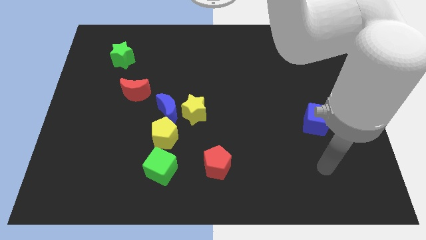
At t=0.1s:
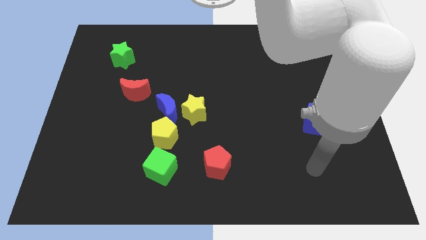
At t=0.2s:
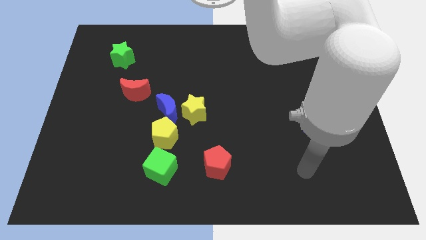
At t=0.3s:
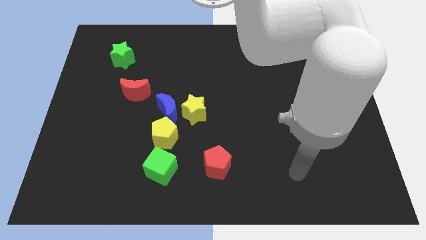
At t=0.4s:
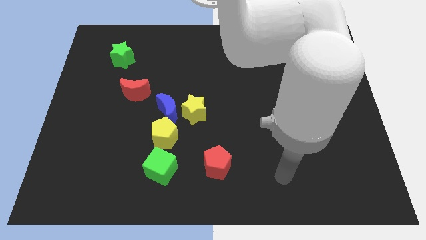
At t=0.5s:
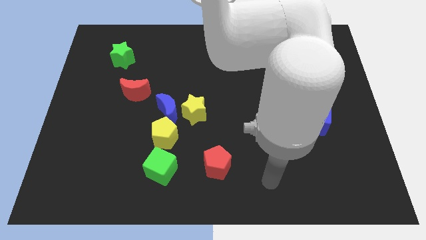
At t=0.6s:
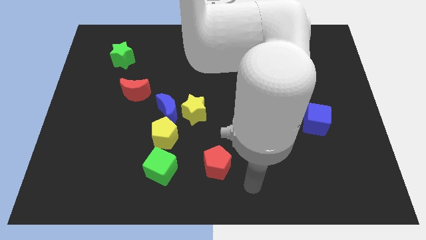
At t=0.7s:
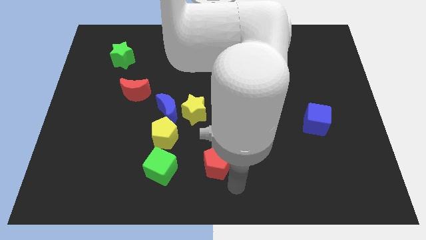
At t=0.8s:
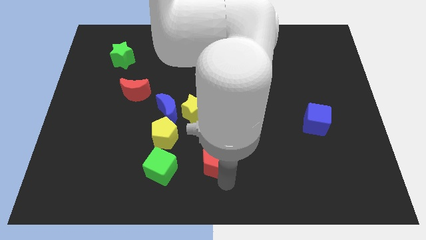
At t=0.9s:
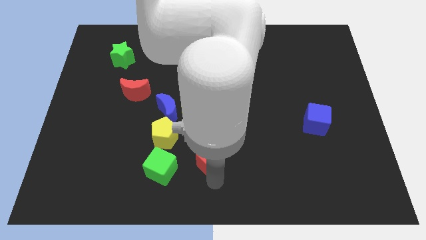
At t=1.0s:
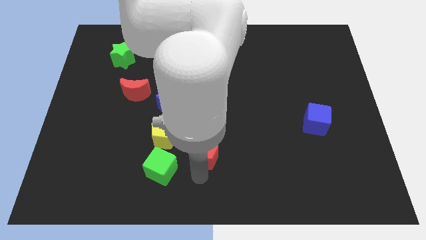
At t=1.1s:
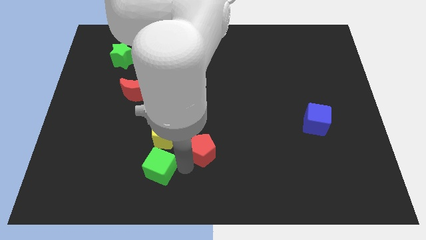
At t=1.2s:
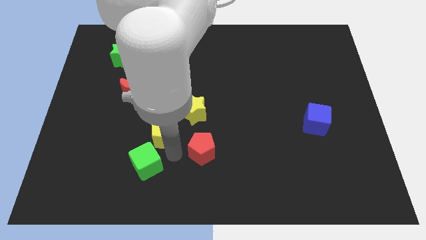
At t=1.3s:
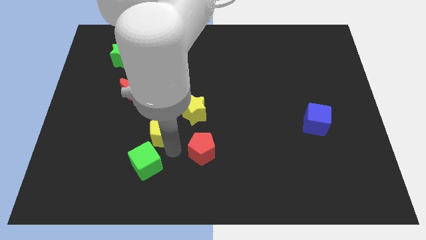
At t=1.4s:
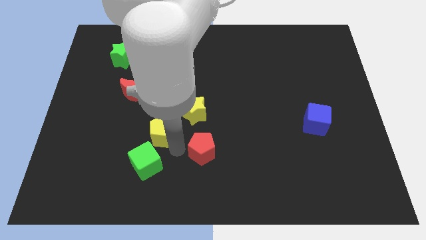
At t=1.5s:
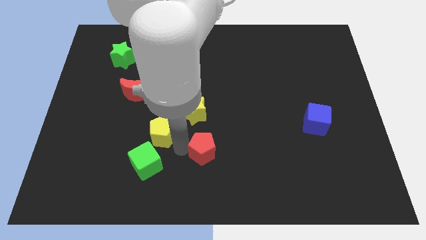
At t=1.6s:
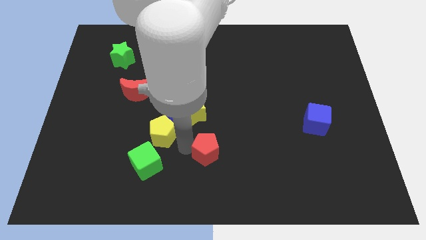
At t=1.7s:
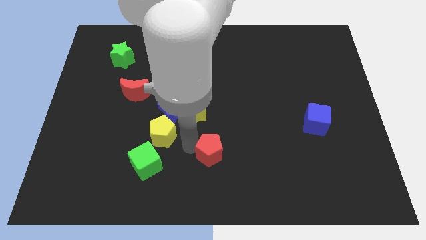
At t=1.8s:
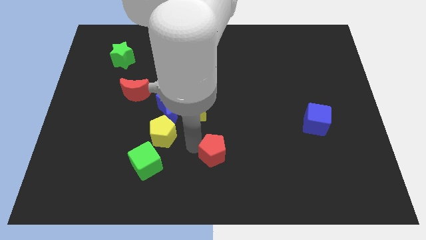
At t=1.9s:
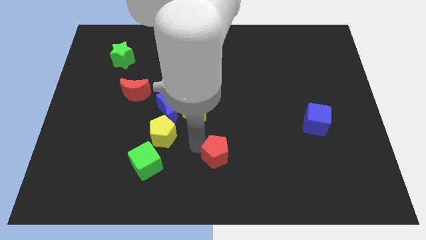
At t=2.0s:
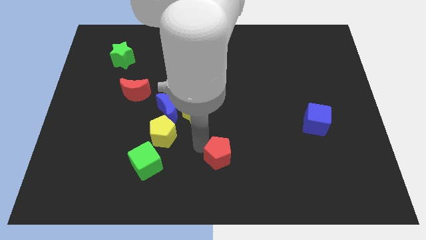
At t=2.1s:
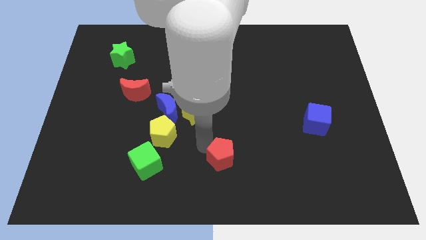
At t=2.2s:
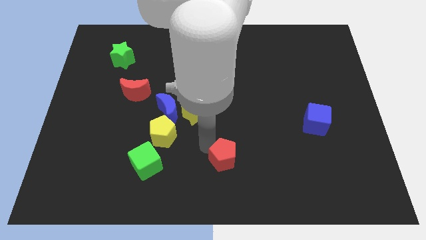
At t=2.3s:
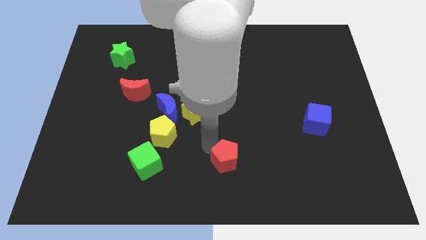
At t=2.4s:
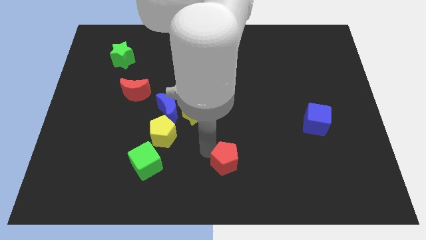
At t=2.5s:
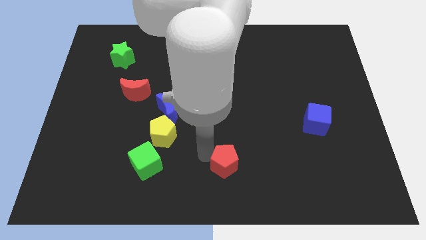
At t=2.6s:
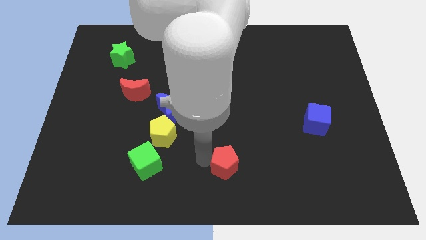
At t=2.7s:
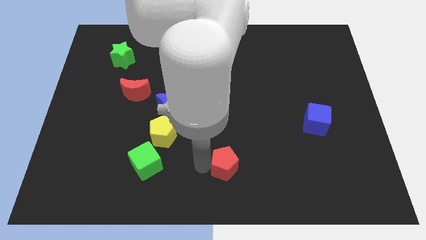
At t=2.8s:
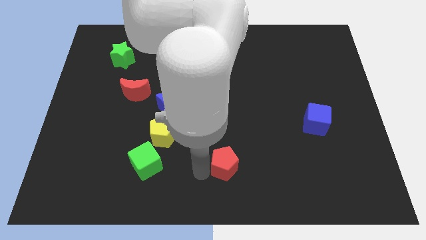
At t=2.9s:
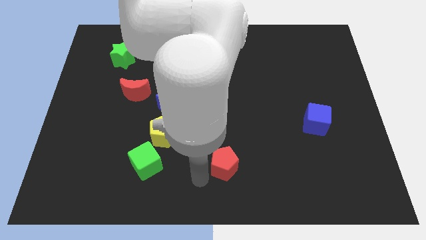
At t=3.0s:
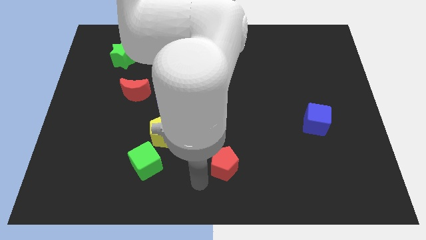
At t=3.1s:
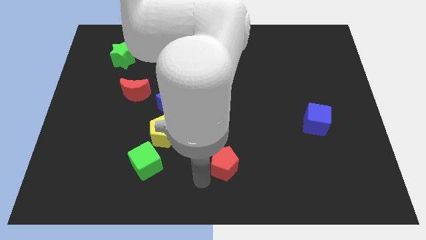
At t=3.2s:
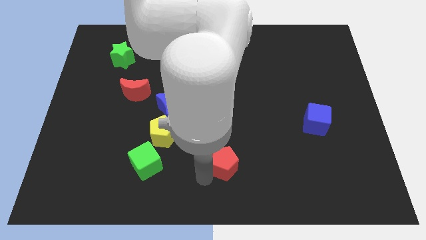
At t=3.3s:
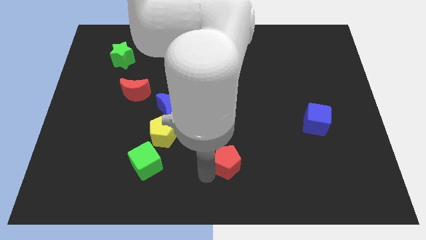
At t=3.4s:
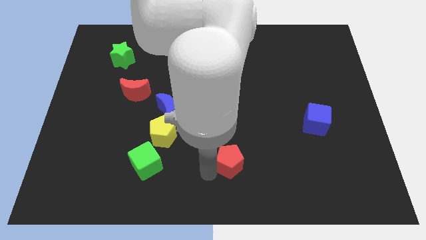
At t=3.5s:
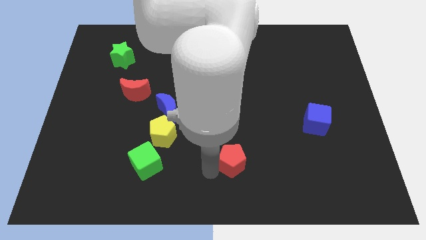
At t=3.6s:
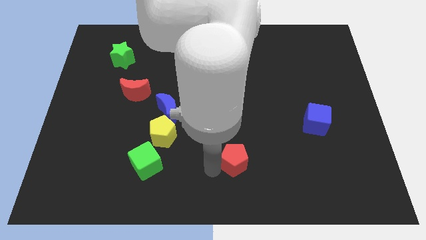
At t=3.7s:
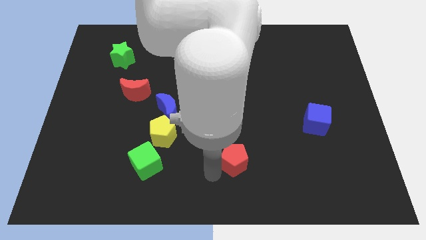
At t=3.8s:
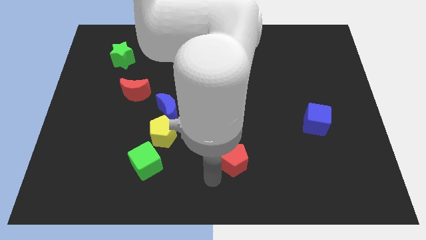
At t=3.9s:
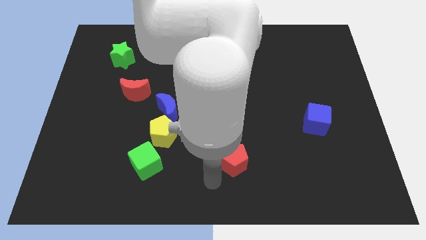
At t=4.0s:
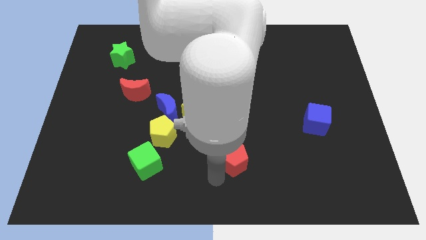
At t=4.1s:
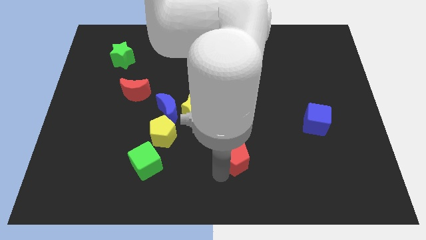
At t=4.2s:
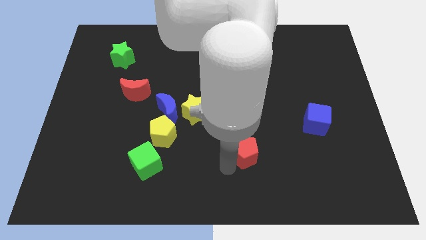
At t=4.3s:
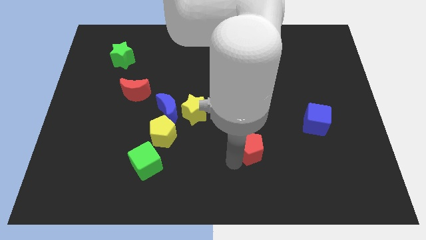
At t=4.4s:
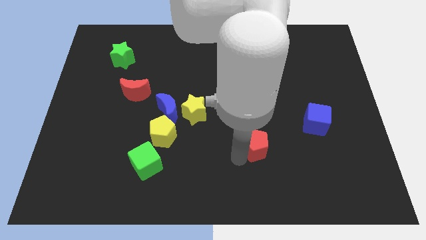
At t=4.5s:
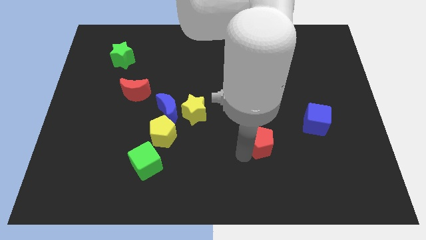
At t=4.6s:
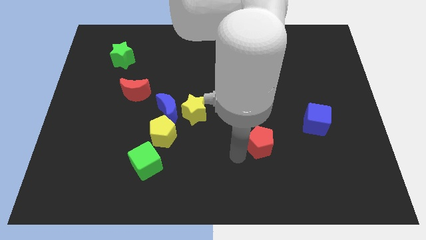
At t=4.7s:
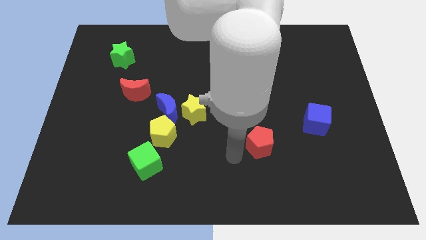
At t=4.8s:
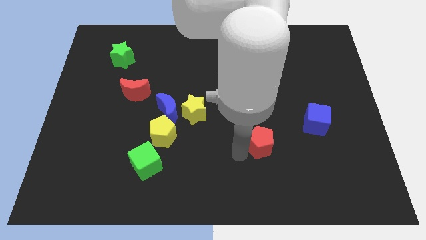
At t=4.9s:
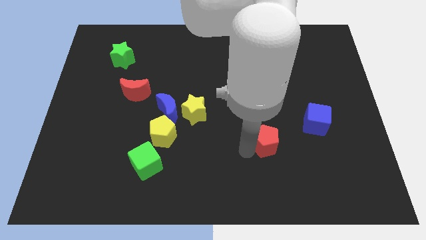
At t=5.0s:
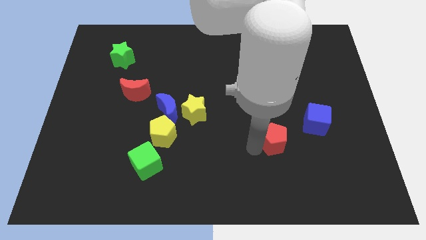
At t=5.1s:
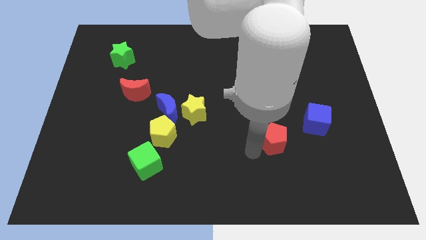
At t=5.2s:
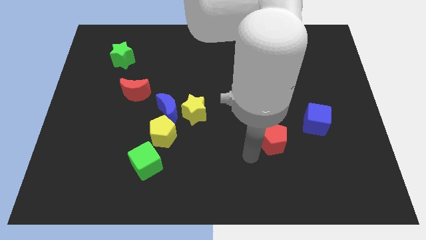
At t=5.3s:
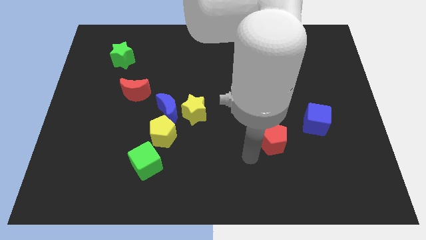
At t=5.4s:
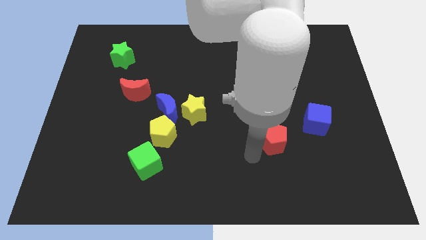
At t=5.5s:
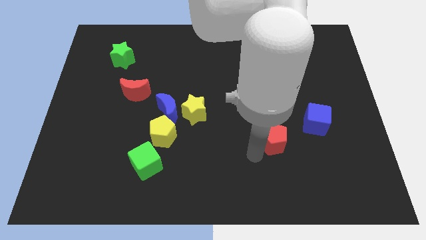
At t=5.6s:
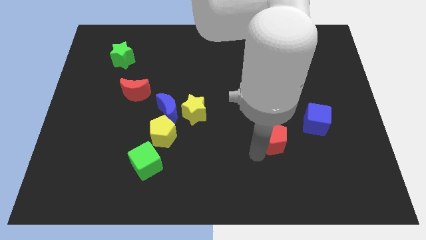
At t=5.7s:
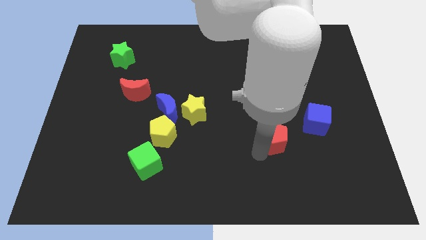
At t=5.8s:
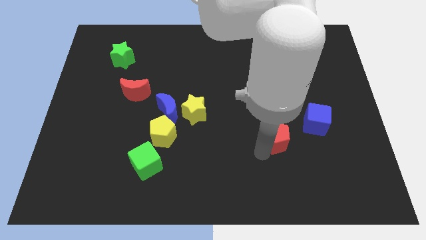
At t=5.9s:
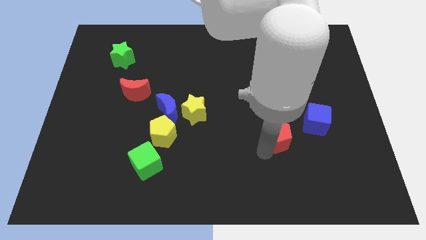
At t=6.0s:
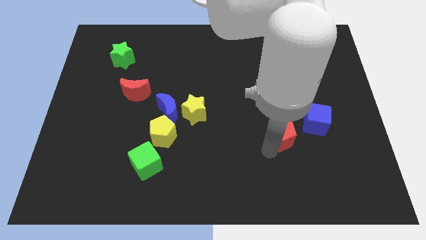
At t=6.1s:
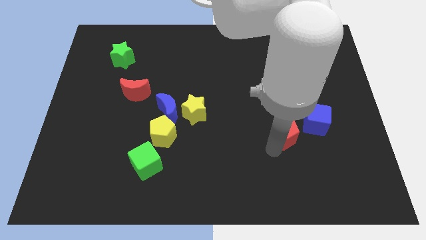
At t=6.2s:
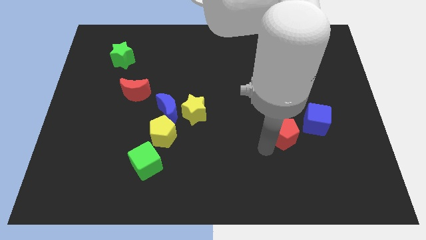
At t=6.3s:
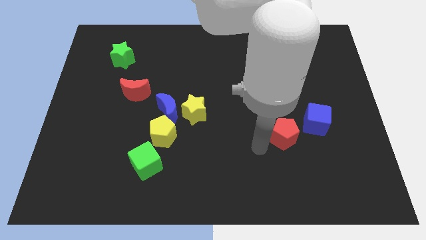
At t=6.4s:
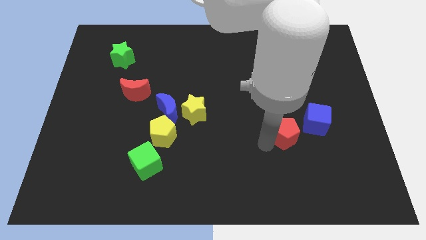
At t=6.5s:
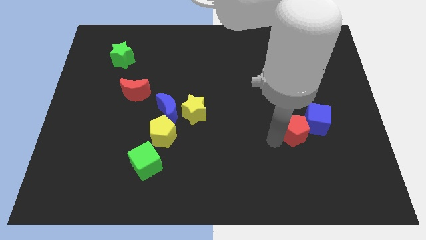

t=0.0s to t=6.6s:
push the red pentagon towards the blue cube

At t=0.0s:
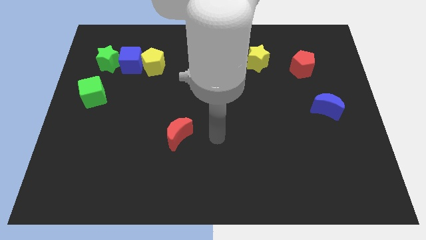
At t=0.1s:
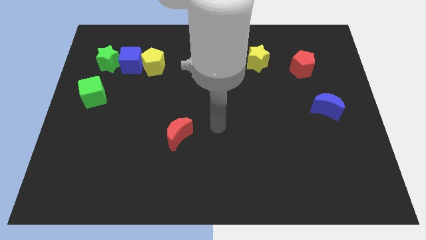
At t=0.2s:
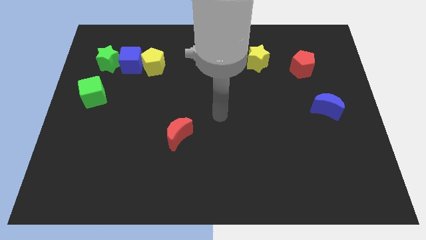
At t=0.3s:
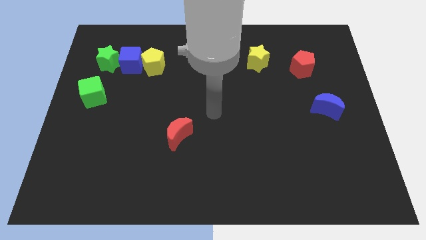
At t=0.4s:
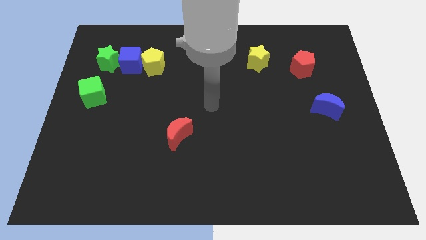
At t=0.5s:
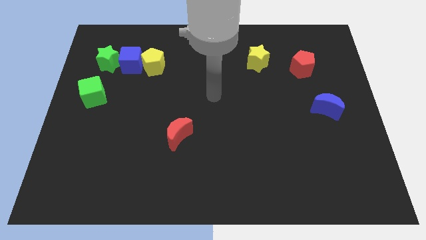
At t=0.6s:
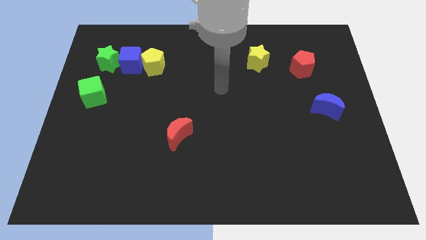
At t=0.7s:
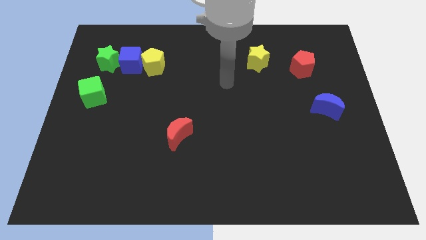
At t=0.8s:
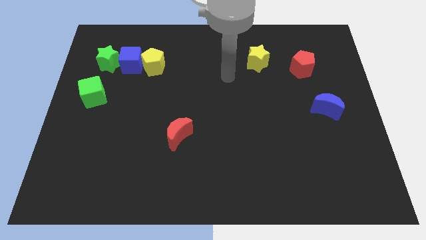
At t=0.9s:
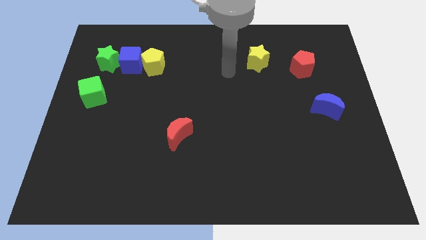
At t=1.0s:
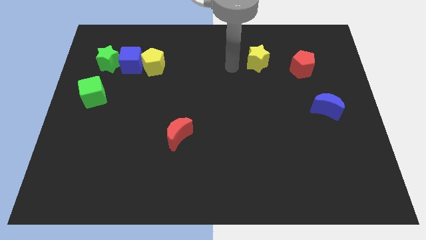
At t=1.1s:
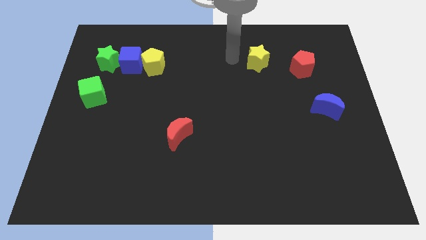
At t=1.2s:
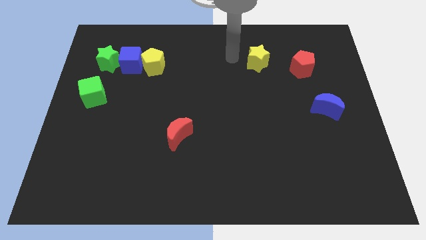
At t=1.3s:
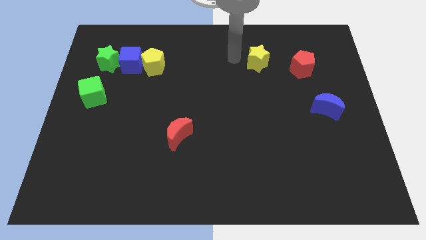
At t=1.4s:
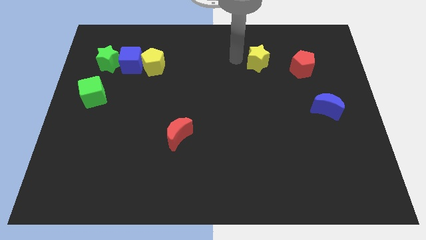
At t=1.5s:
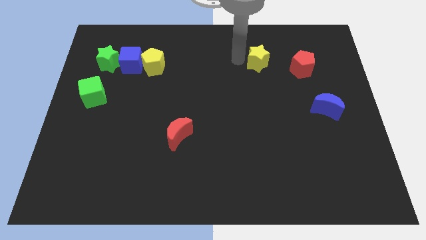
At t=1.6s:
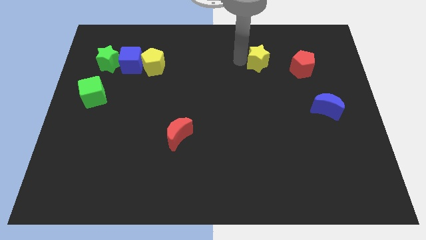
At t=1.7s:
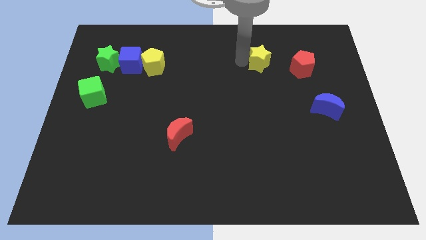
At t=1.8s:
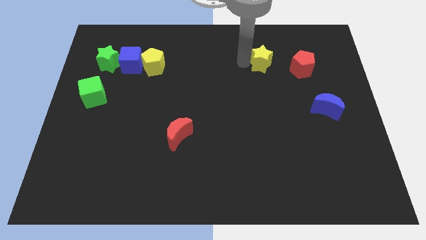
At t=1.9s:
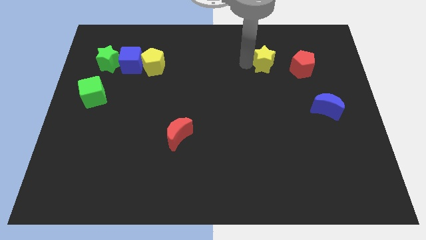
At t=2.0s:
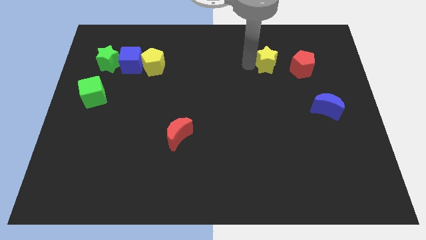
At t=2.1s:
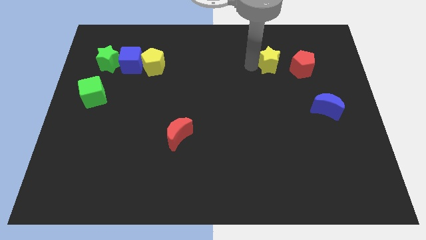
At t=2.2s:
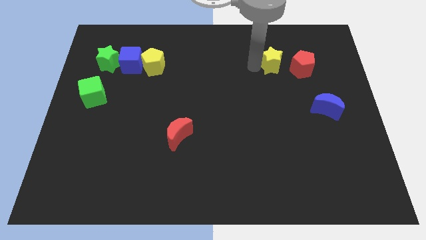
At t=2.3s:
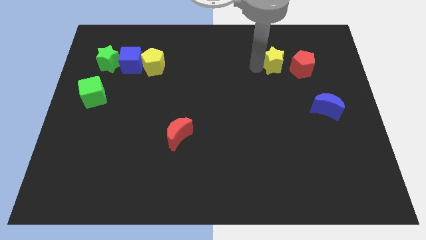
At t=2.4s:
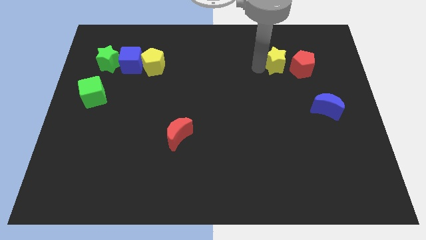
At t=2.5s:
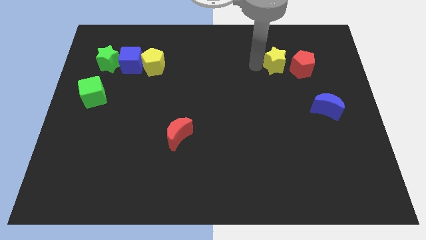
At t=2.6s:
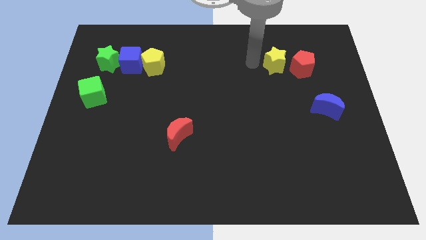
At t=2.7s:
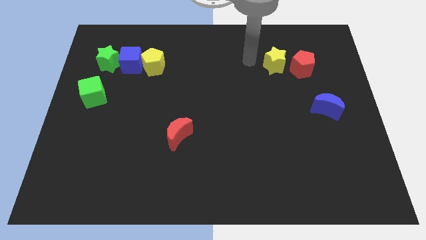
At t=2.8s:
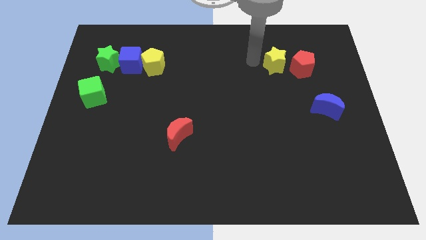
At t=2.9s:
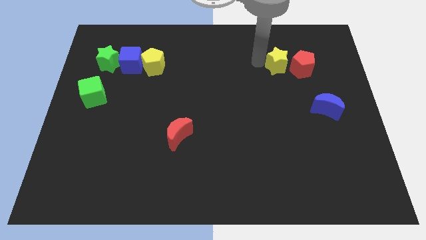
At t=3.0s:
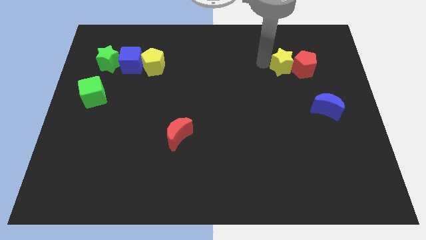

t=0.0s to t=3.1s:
move the yellow star close to the red pentagon
